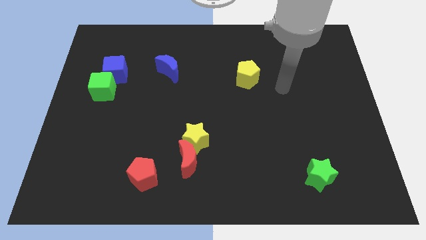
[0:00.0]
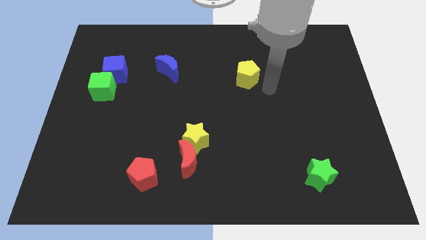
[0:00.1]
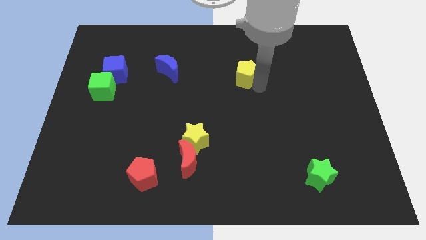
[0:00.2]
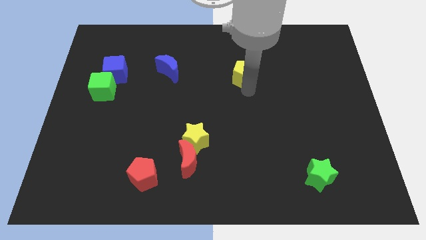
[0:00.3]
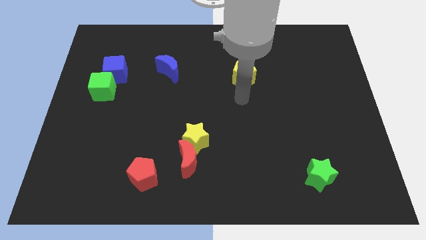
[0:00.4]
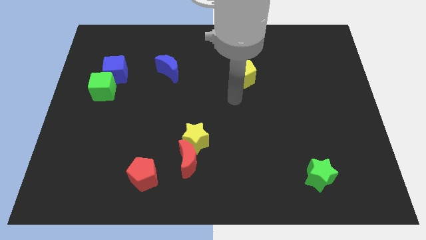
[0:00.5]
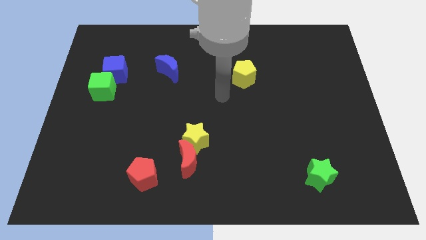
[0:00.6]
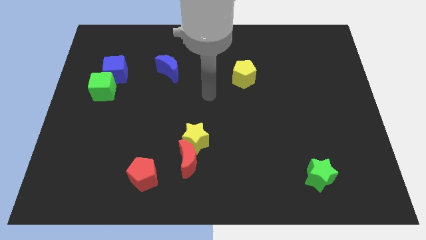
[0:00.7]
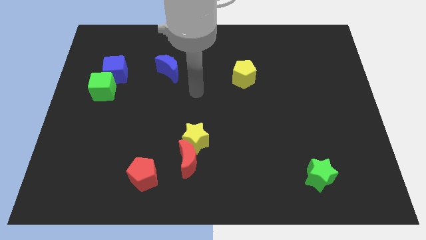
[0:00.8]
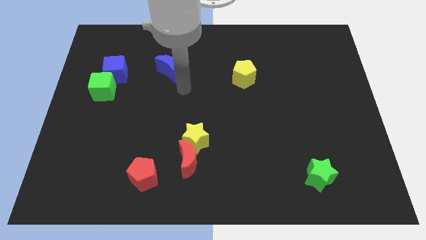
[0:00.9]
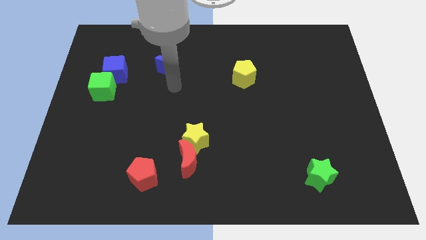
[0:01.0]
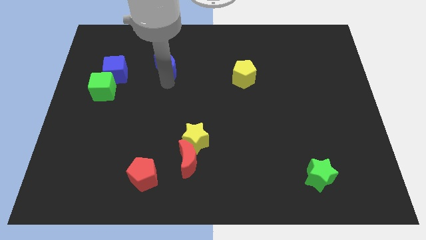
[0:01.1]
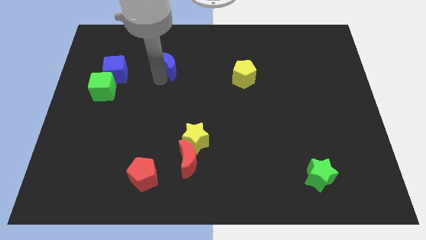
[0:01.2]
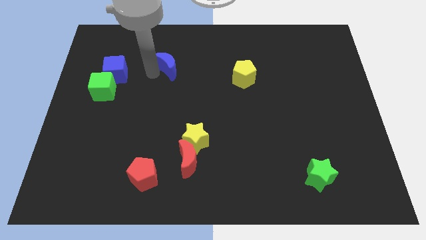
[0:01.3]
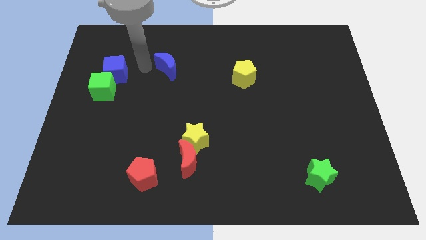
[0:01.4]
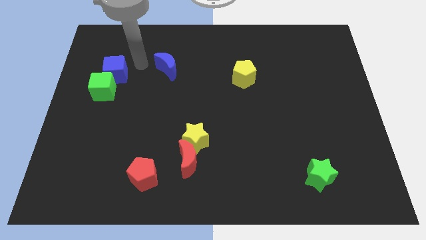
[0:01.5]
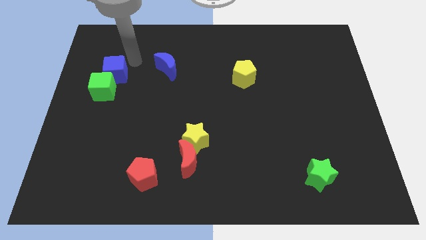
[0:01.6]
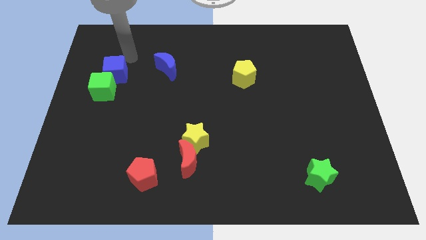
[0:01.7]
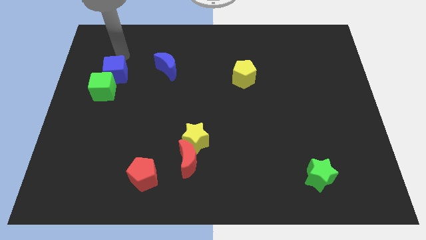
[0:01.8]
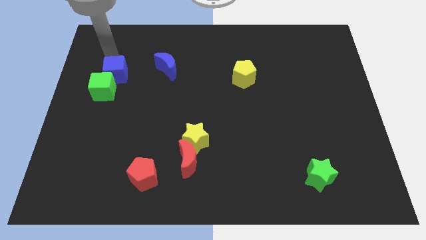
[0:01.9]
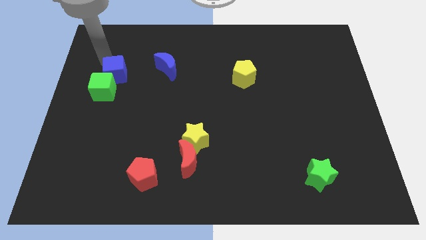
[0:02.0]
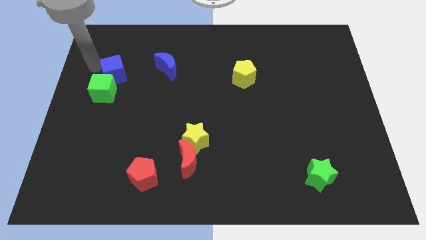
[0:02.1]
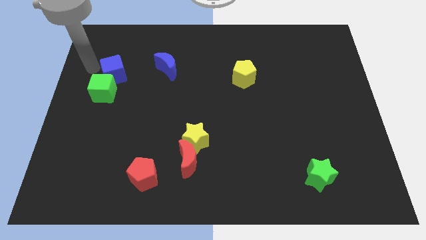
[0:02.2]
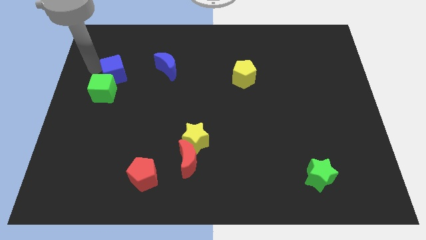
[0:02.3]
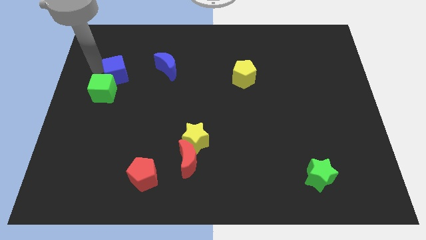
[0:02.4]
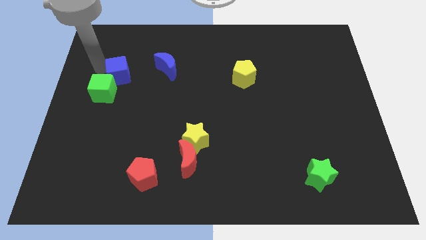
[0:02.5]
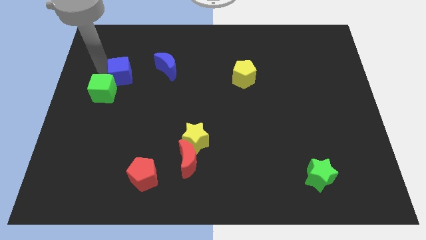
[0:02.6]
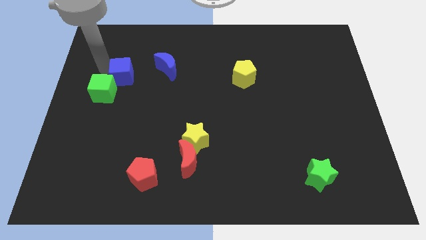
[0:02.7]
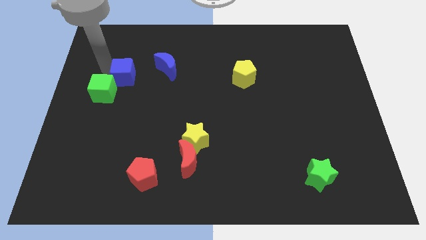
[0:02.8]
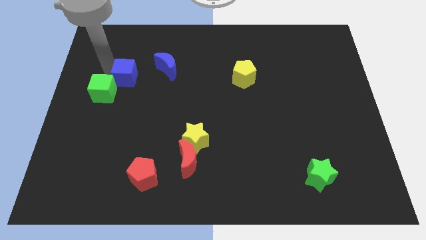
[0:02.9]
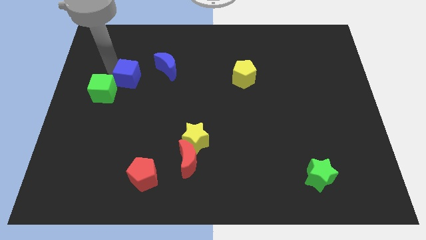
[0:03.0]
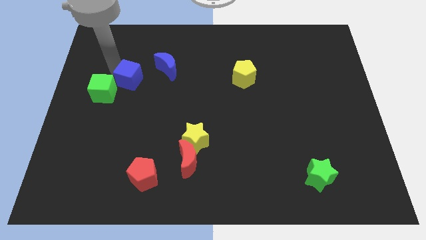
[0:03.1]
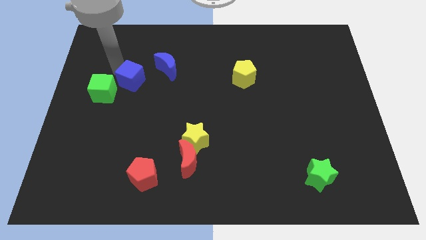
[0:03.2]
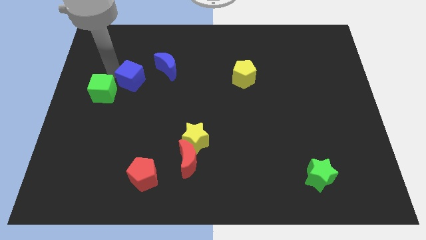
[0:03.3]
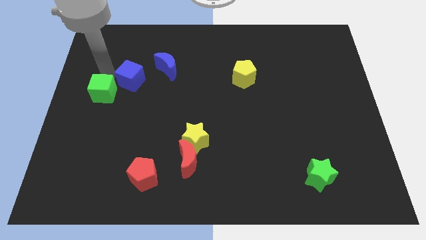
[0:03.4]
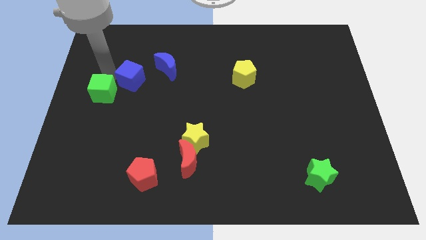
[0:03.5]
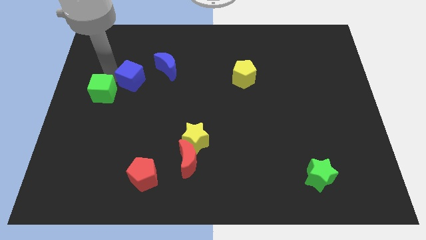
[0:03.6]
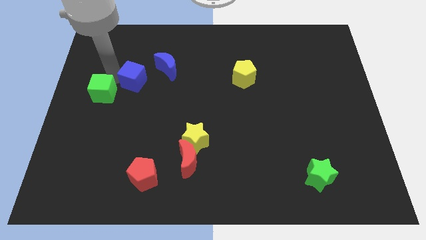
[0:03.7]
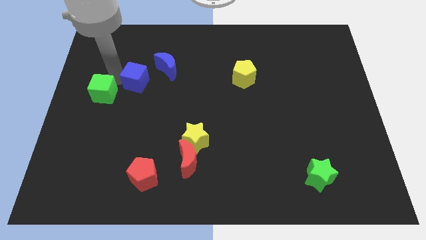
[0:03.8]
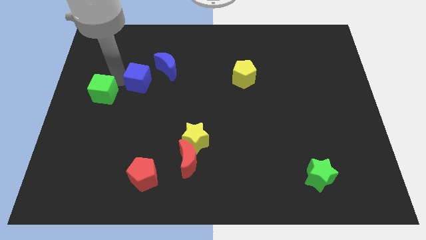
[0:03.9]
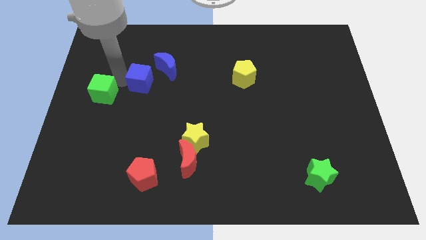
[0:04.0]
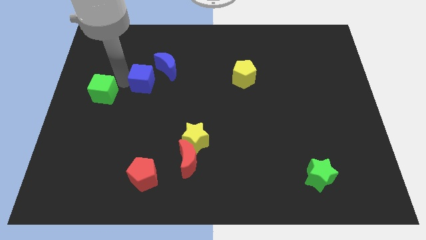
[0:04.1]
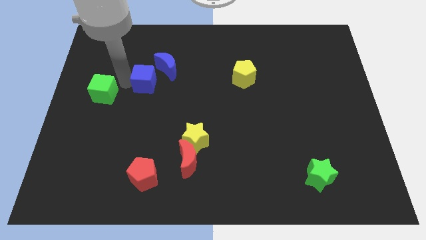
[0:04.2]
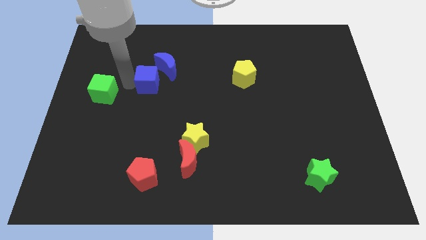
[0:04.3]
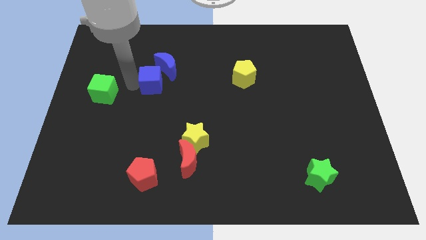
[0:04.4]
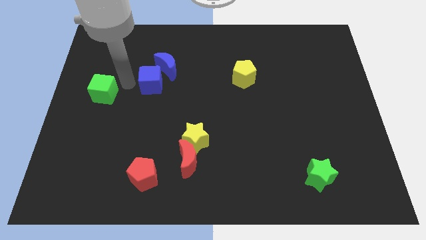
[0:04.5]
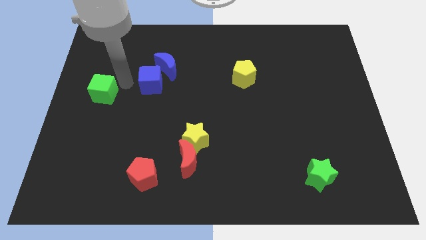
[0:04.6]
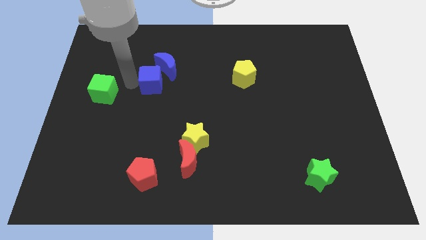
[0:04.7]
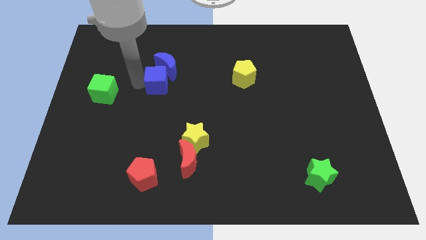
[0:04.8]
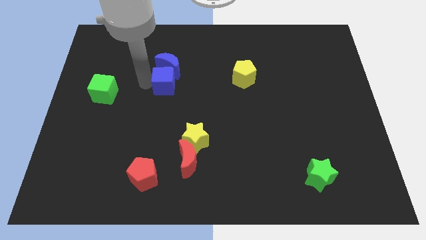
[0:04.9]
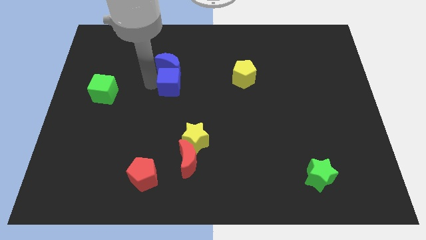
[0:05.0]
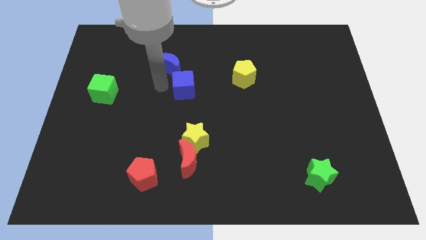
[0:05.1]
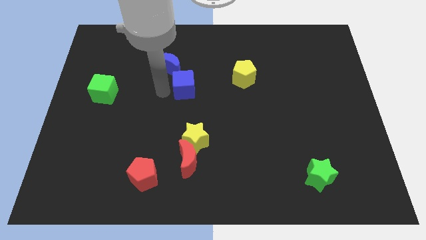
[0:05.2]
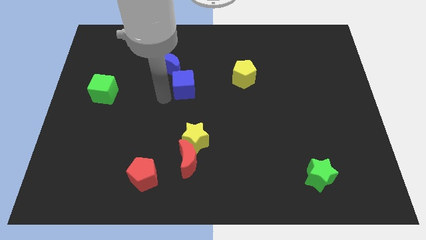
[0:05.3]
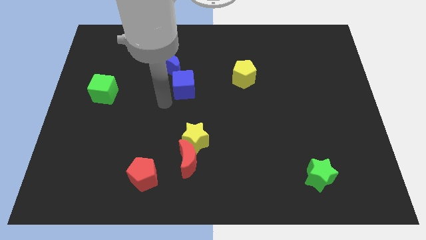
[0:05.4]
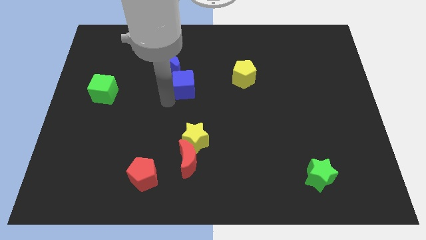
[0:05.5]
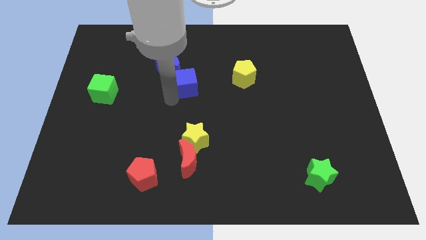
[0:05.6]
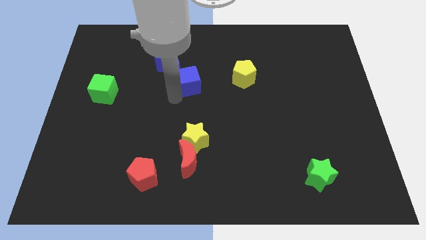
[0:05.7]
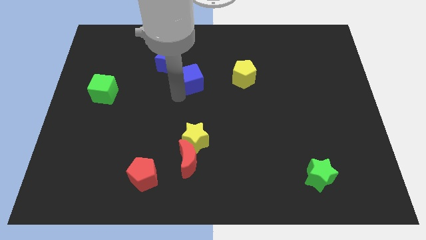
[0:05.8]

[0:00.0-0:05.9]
move the blue cube to the right of the blue moon

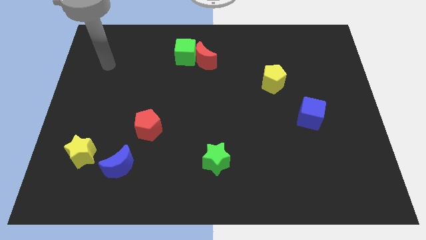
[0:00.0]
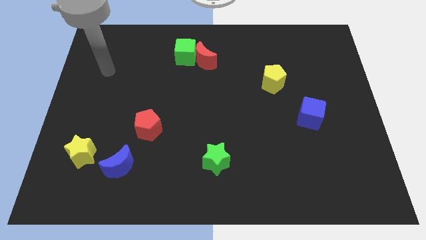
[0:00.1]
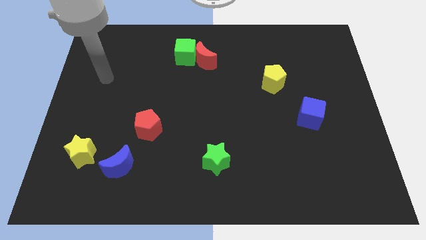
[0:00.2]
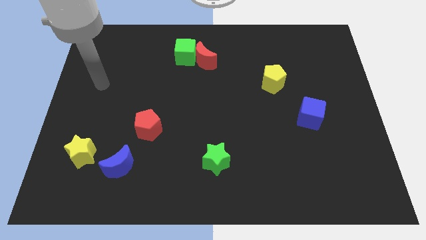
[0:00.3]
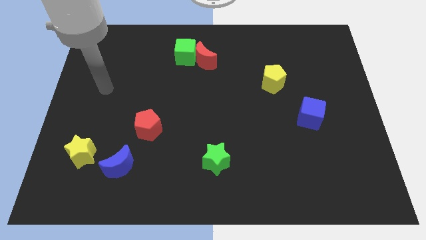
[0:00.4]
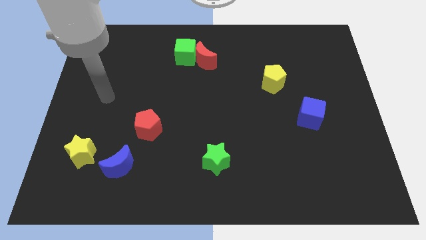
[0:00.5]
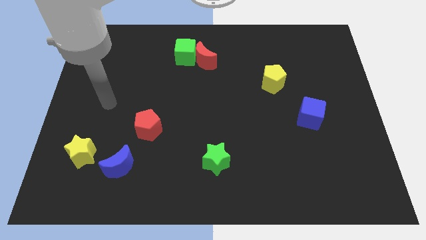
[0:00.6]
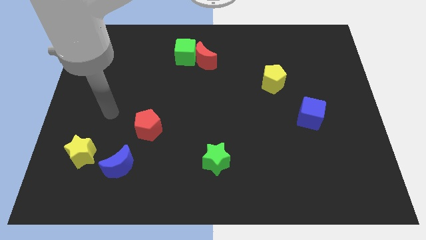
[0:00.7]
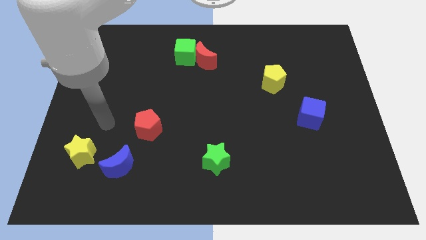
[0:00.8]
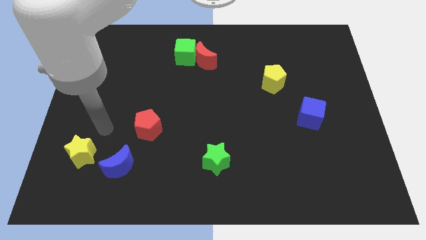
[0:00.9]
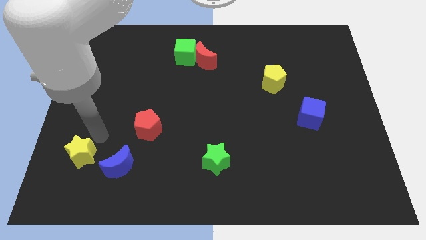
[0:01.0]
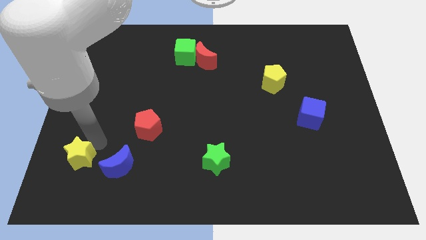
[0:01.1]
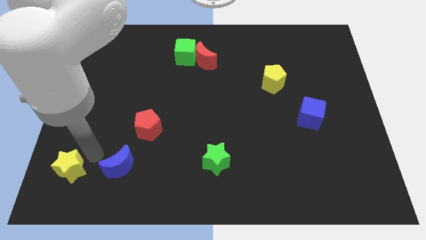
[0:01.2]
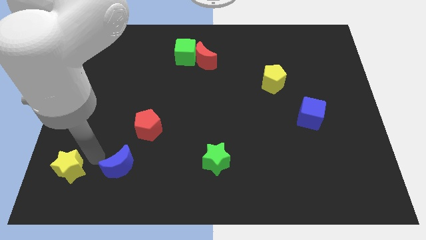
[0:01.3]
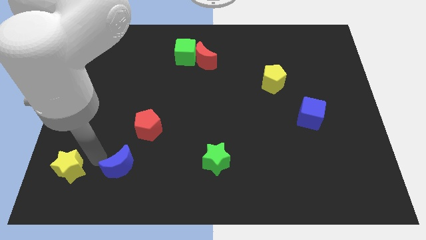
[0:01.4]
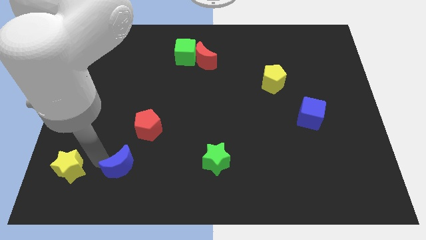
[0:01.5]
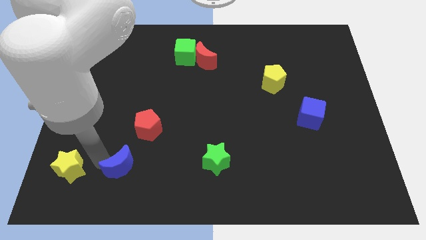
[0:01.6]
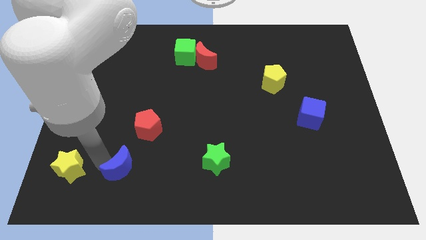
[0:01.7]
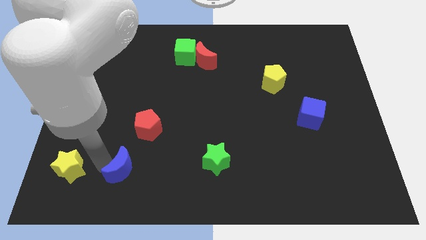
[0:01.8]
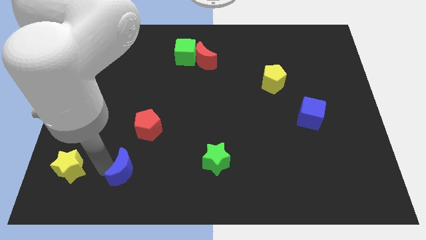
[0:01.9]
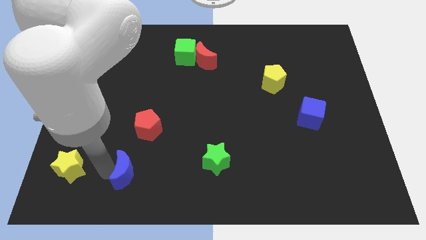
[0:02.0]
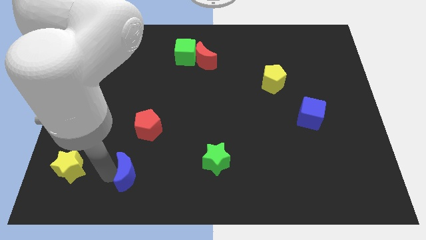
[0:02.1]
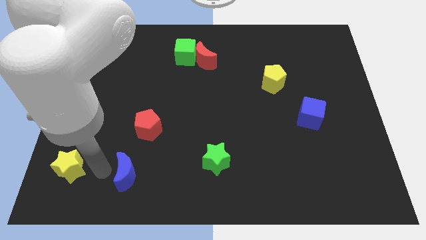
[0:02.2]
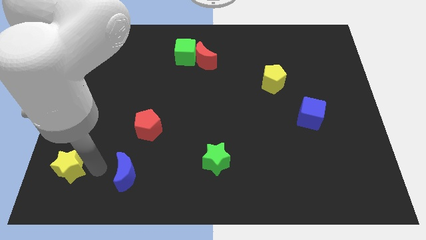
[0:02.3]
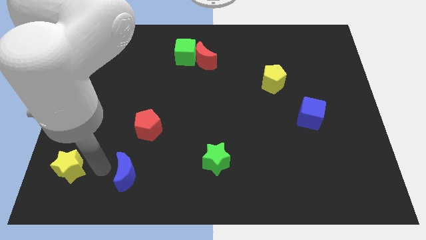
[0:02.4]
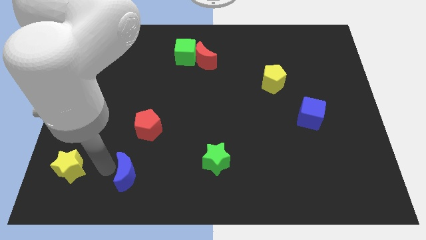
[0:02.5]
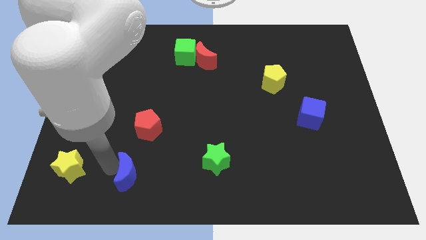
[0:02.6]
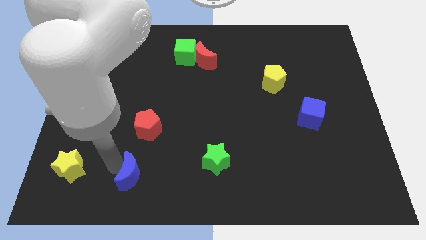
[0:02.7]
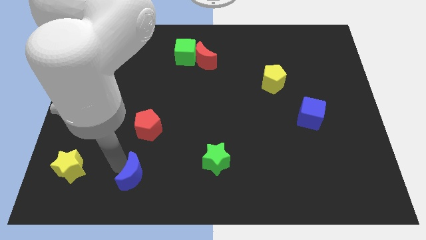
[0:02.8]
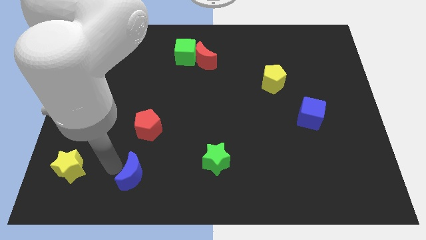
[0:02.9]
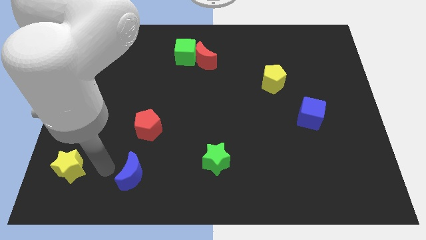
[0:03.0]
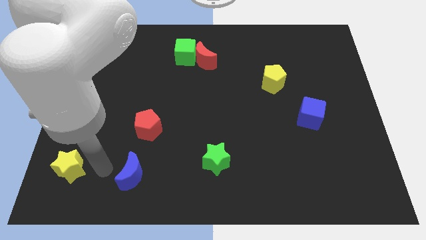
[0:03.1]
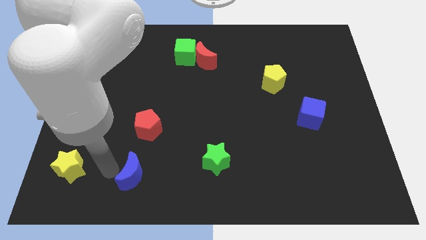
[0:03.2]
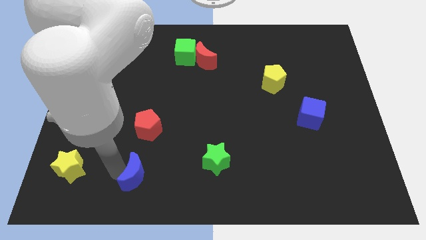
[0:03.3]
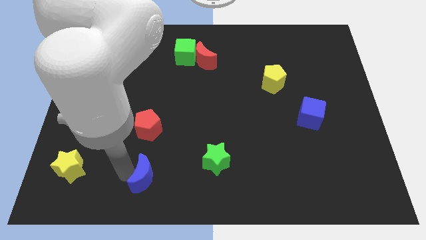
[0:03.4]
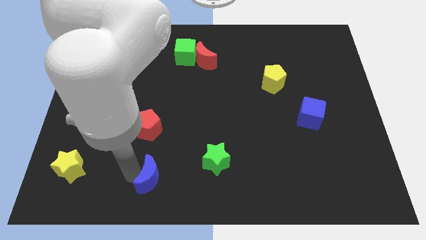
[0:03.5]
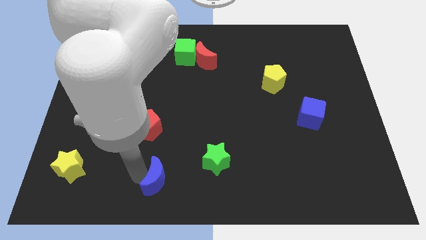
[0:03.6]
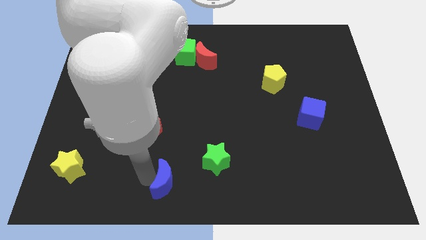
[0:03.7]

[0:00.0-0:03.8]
put the blue moon to the bottom left side of the green star
